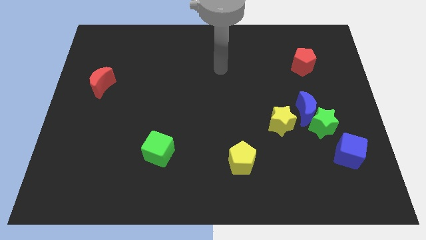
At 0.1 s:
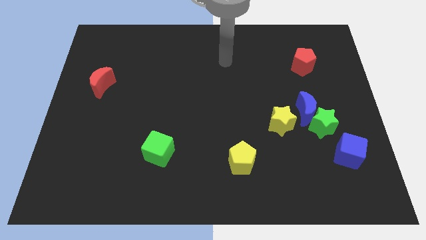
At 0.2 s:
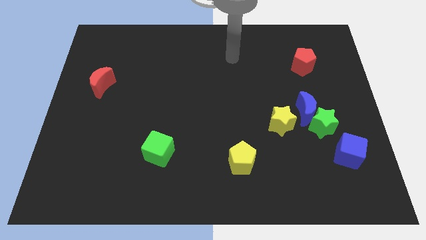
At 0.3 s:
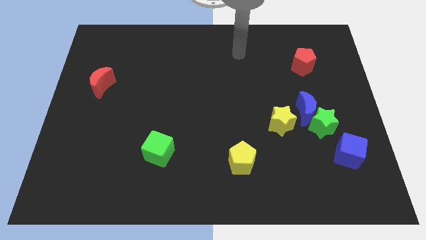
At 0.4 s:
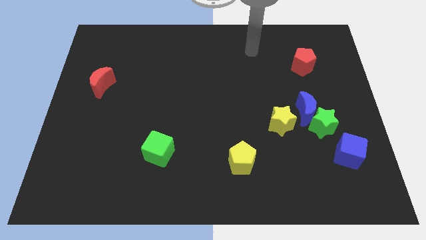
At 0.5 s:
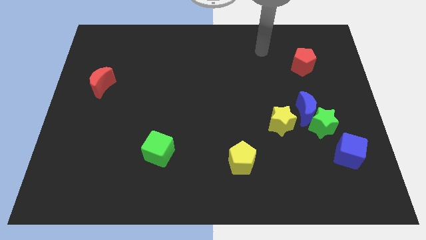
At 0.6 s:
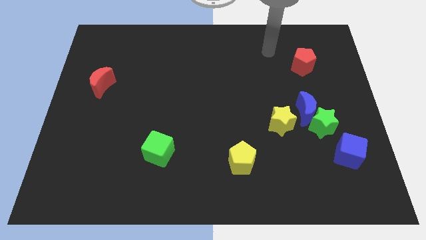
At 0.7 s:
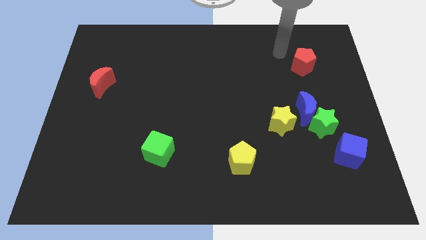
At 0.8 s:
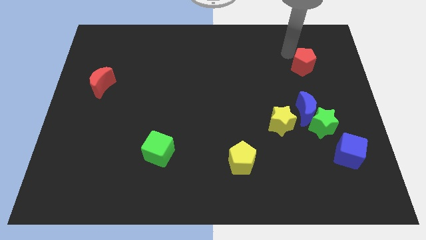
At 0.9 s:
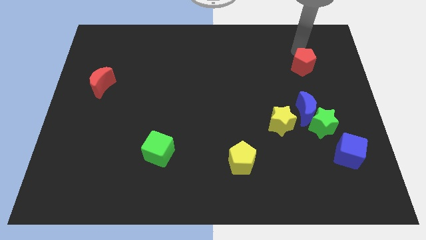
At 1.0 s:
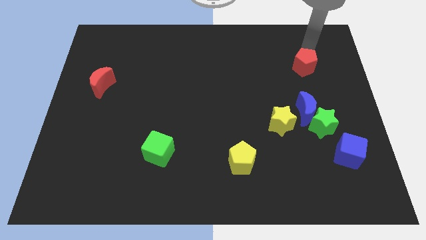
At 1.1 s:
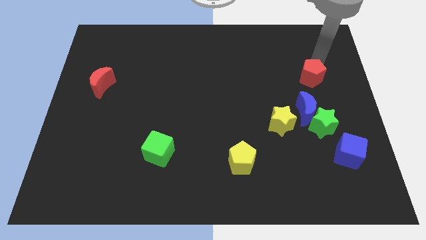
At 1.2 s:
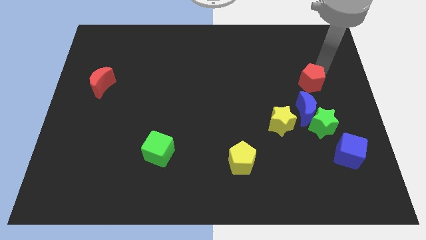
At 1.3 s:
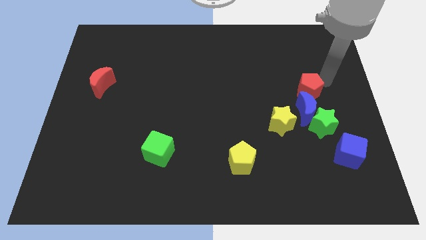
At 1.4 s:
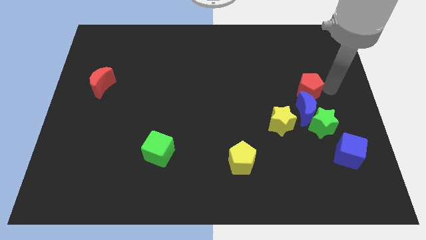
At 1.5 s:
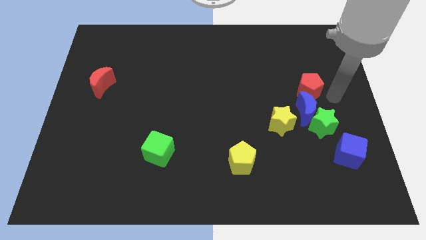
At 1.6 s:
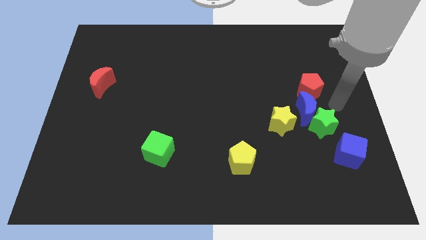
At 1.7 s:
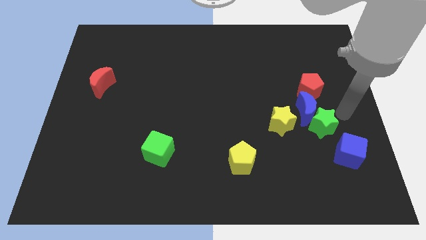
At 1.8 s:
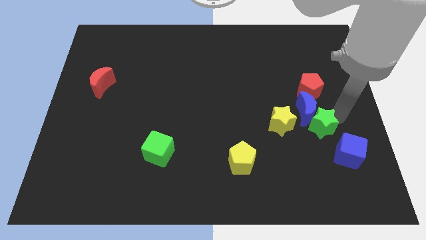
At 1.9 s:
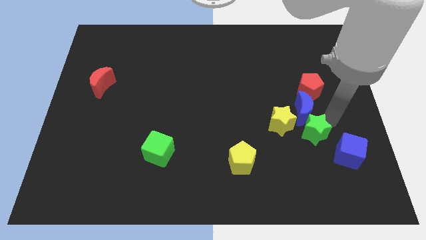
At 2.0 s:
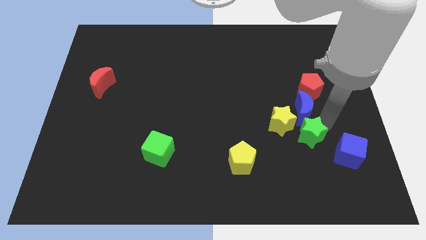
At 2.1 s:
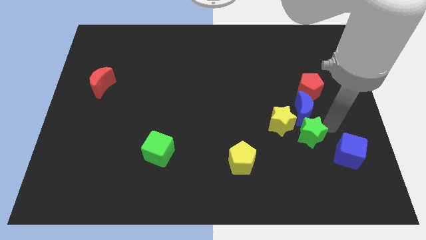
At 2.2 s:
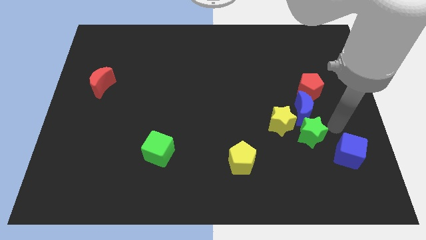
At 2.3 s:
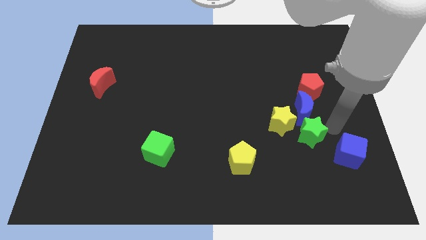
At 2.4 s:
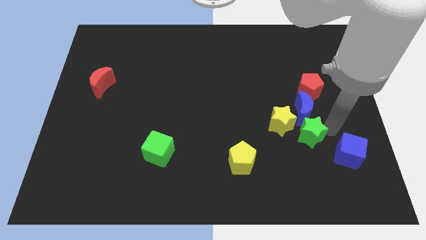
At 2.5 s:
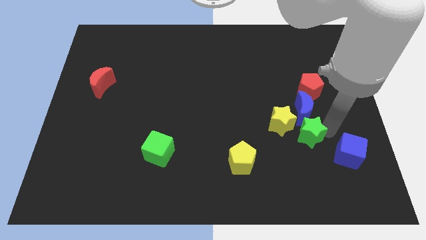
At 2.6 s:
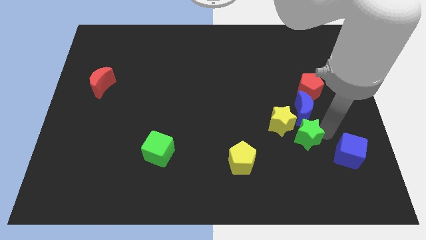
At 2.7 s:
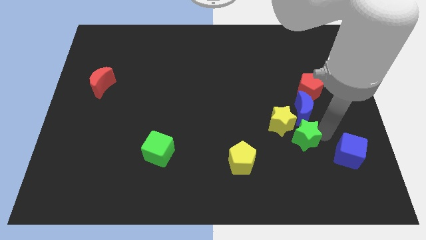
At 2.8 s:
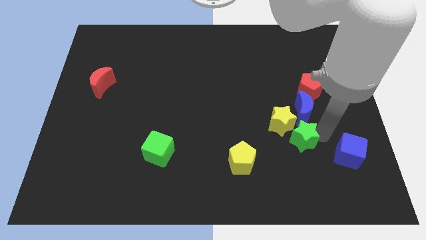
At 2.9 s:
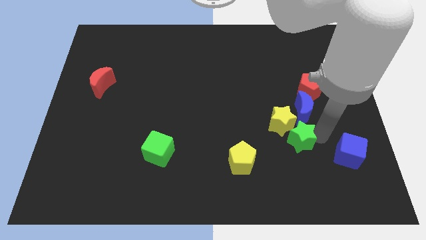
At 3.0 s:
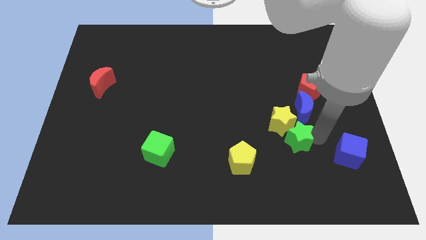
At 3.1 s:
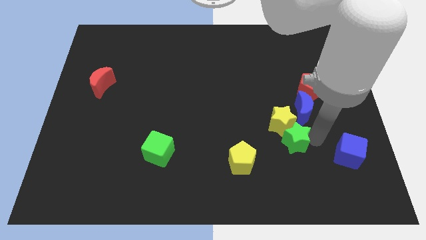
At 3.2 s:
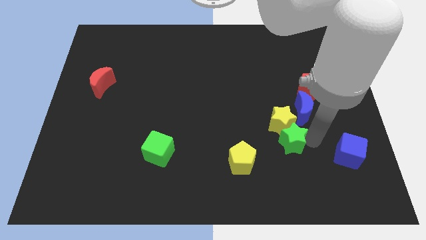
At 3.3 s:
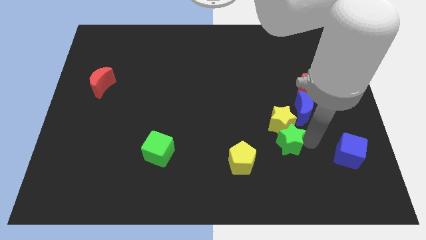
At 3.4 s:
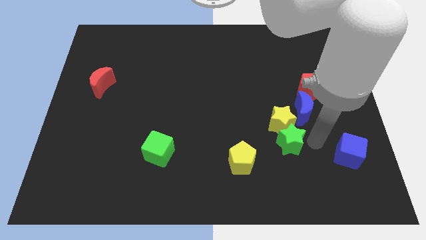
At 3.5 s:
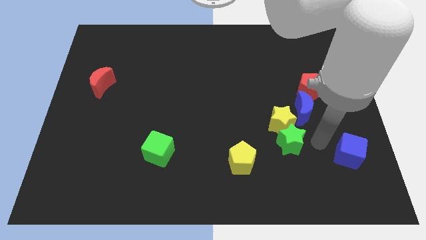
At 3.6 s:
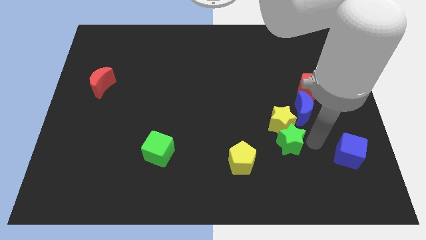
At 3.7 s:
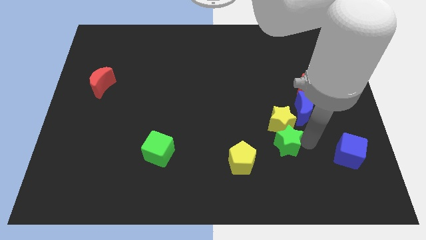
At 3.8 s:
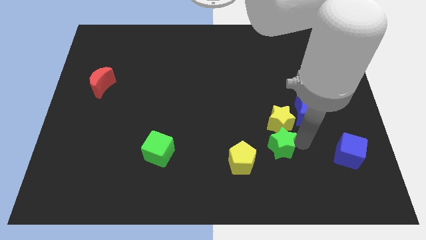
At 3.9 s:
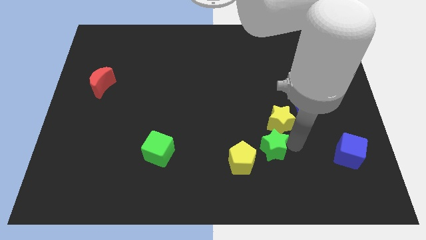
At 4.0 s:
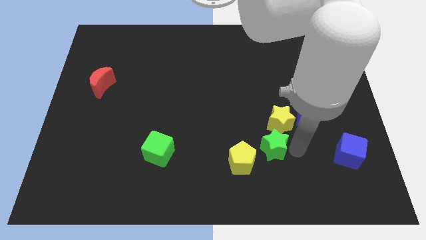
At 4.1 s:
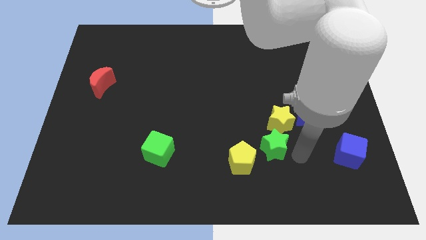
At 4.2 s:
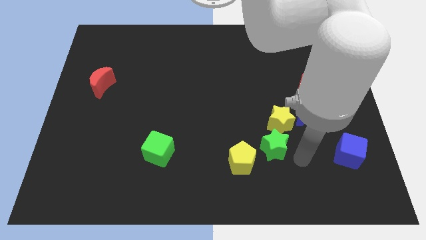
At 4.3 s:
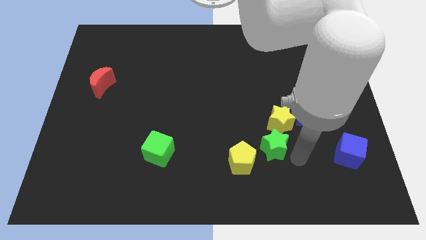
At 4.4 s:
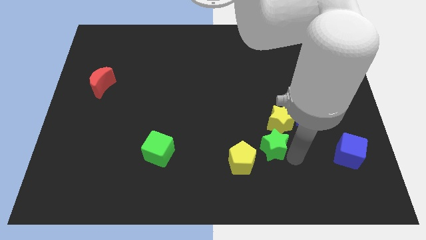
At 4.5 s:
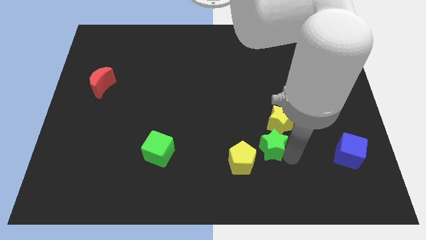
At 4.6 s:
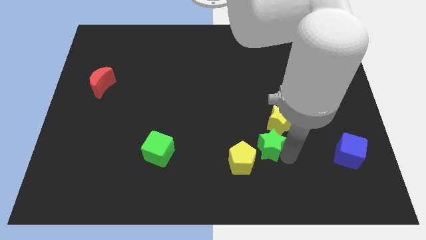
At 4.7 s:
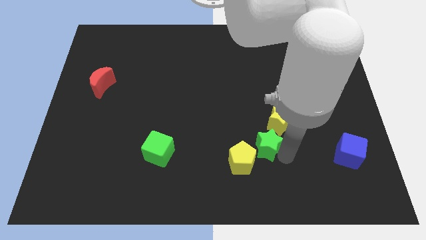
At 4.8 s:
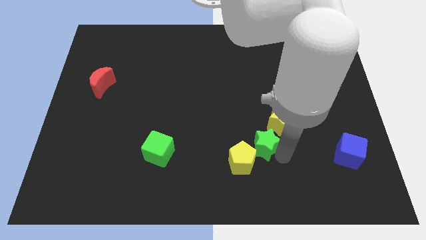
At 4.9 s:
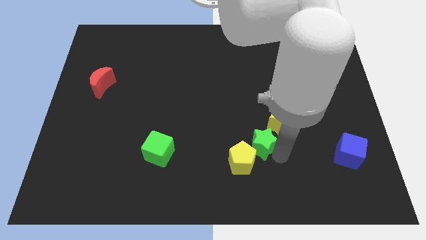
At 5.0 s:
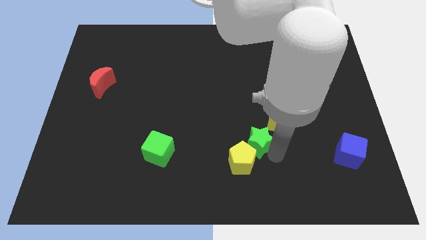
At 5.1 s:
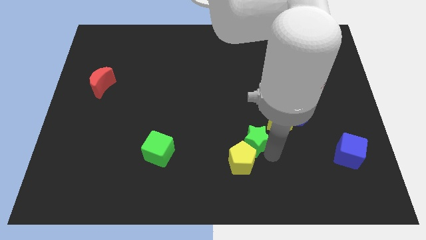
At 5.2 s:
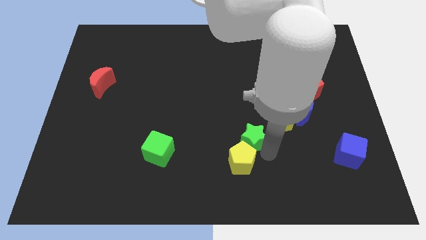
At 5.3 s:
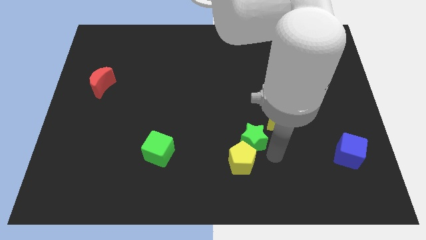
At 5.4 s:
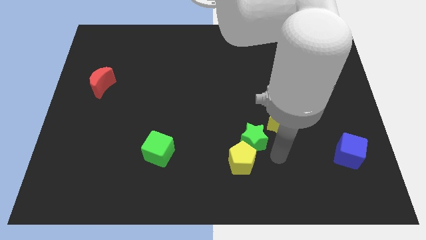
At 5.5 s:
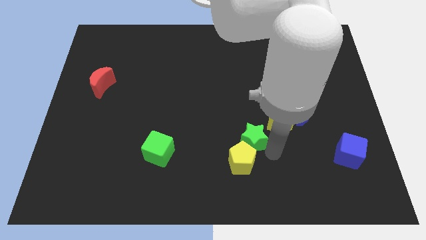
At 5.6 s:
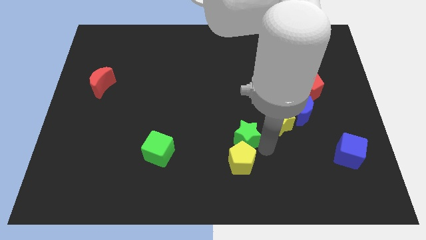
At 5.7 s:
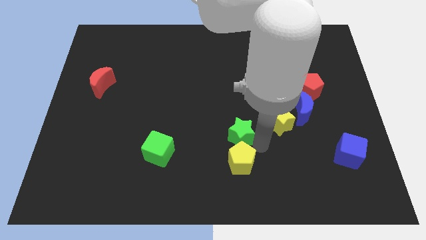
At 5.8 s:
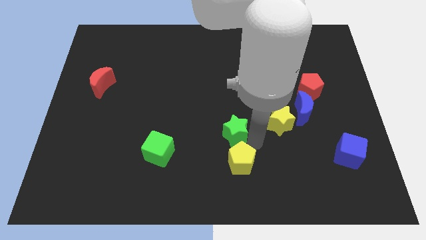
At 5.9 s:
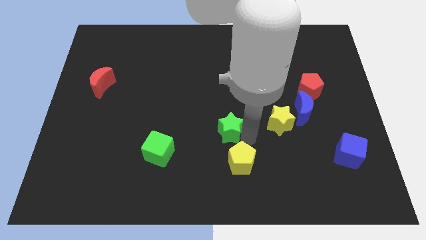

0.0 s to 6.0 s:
push the green star left

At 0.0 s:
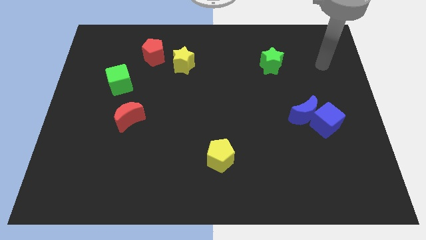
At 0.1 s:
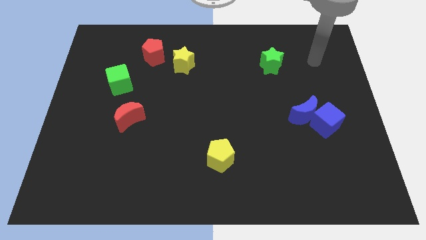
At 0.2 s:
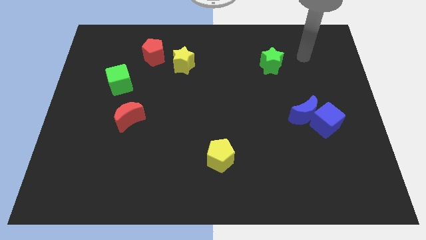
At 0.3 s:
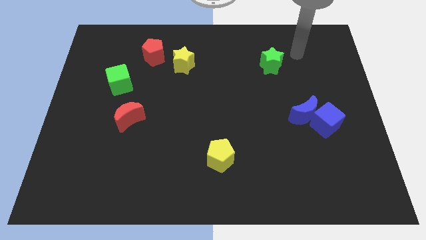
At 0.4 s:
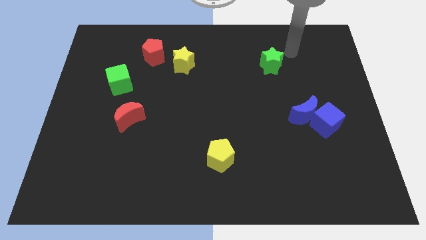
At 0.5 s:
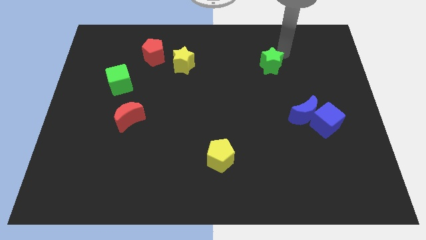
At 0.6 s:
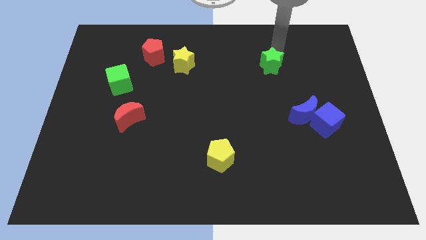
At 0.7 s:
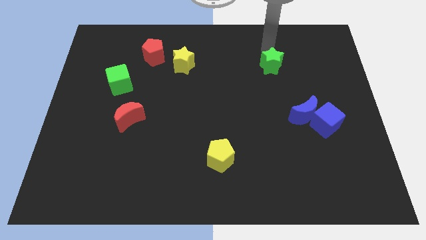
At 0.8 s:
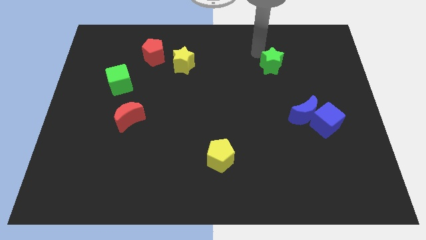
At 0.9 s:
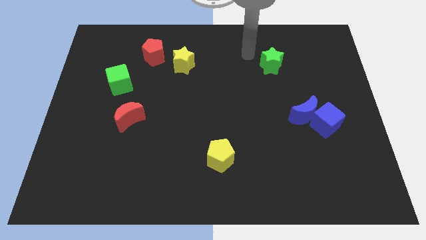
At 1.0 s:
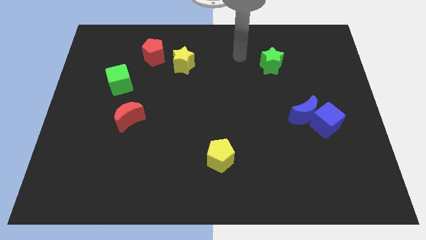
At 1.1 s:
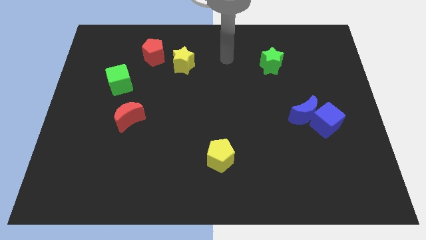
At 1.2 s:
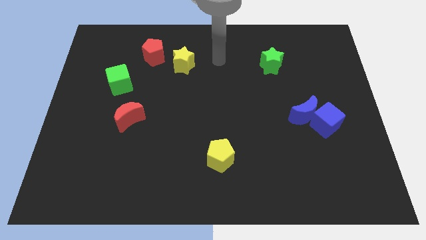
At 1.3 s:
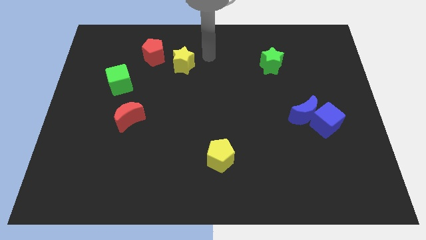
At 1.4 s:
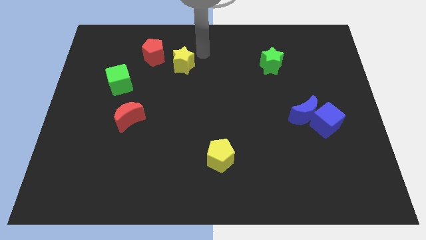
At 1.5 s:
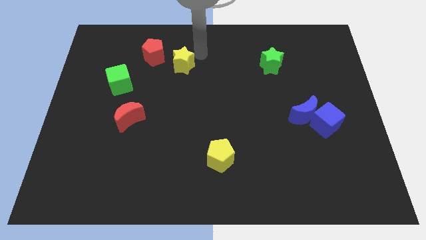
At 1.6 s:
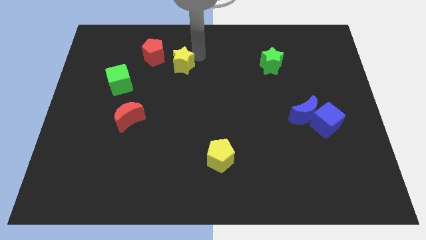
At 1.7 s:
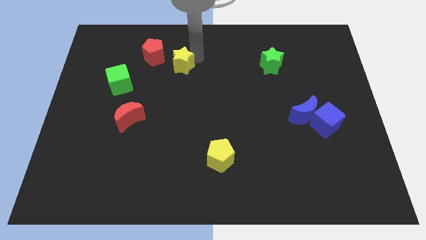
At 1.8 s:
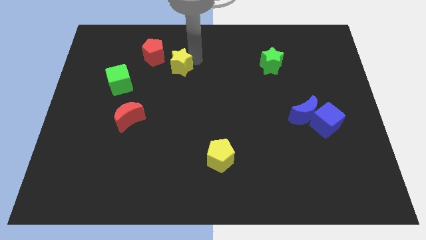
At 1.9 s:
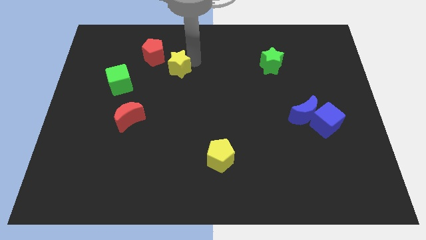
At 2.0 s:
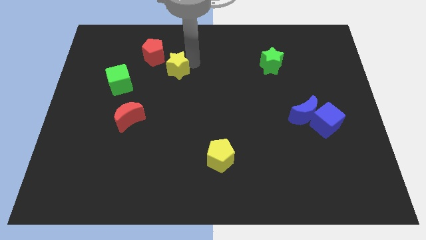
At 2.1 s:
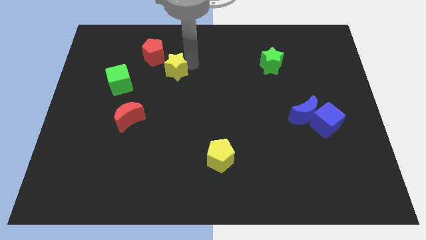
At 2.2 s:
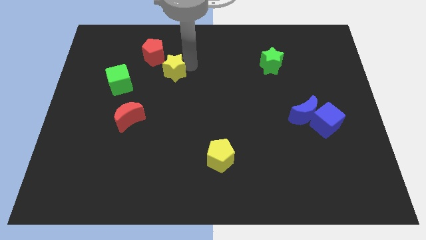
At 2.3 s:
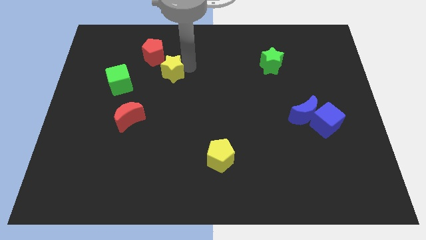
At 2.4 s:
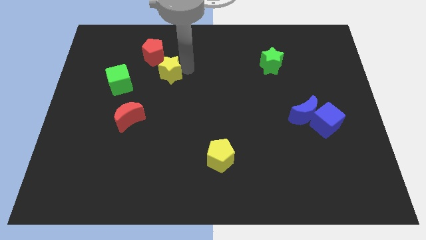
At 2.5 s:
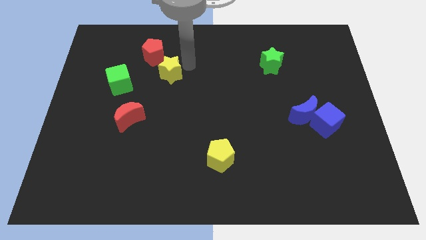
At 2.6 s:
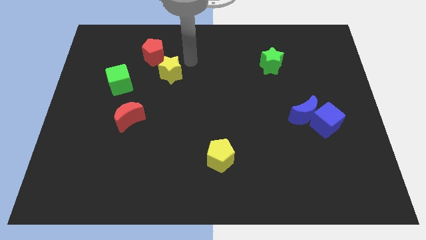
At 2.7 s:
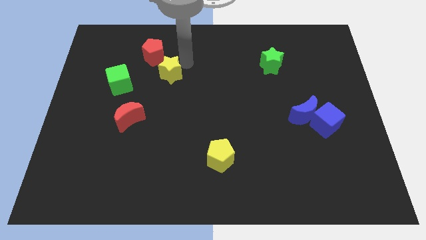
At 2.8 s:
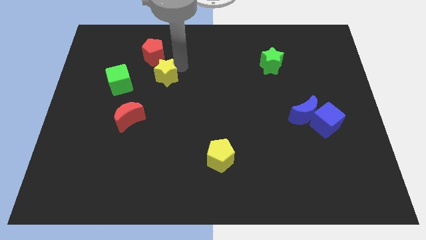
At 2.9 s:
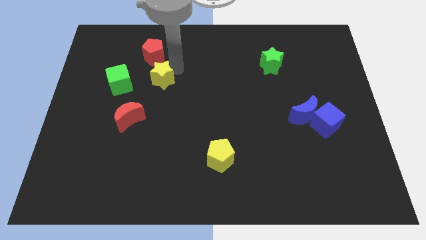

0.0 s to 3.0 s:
slide the yellow star a little down and to the left
